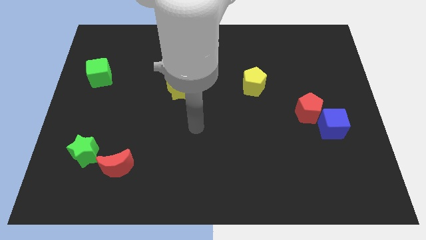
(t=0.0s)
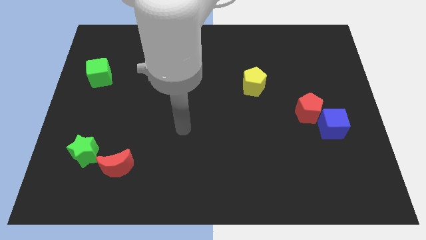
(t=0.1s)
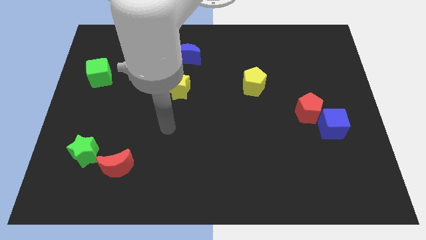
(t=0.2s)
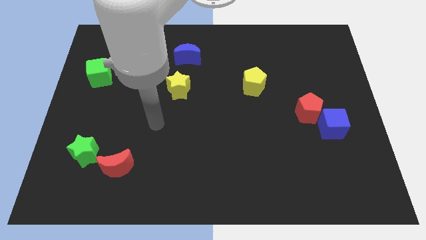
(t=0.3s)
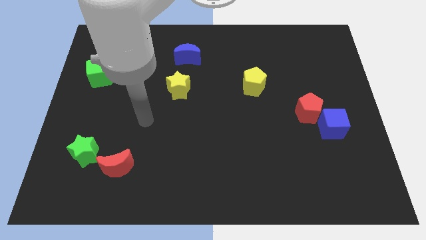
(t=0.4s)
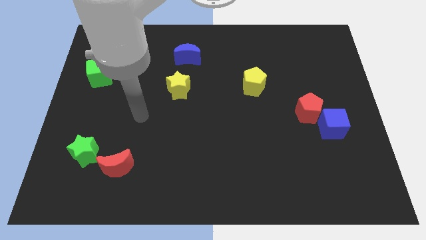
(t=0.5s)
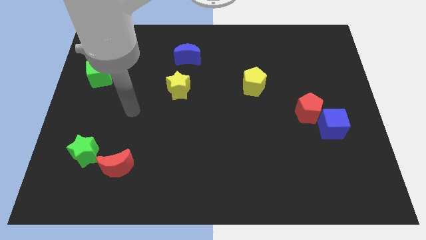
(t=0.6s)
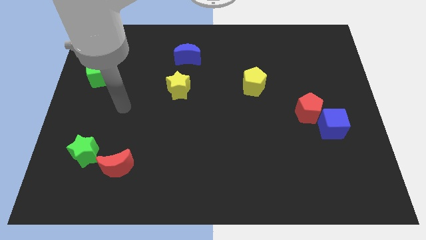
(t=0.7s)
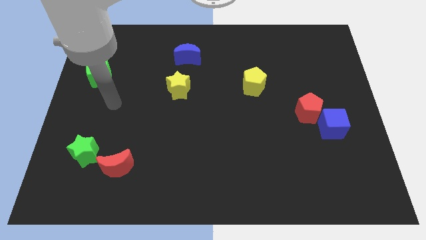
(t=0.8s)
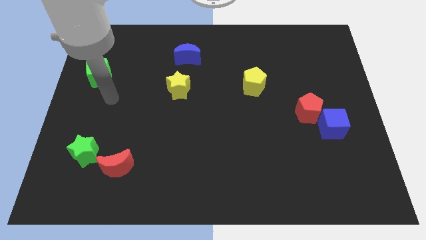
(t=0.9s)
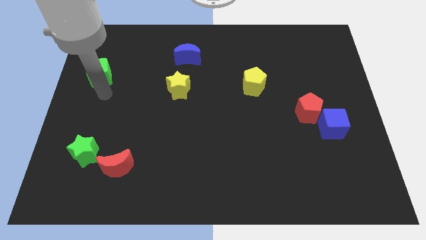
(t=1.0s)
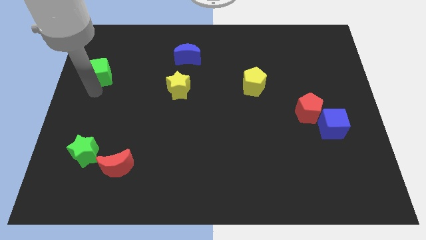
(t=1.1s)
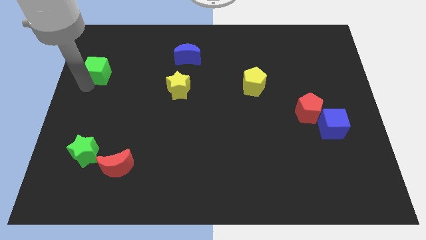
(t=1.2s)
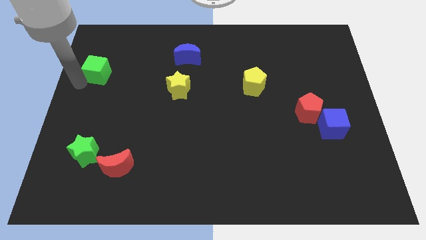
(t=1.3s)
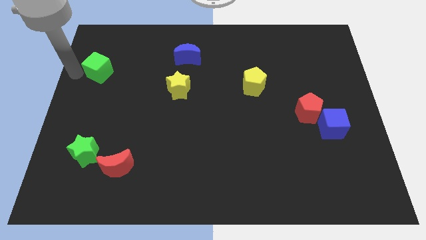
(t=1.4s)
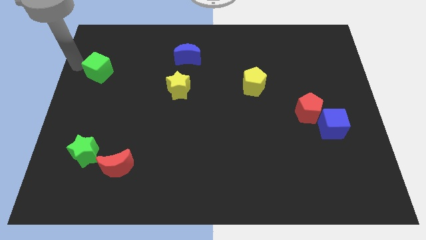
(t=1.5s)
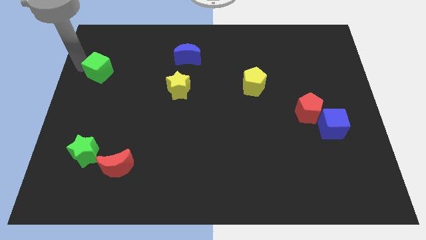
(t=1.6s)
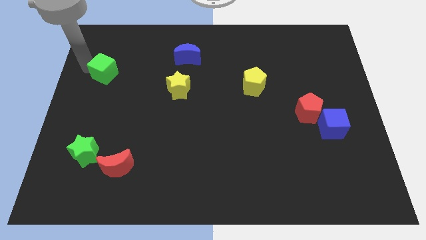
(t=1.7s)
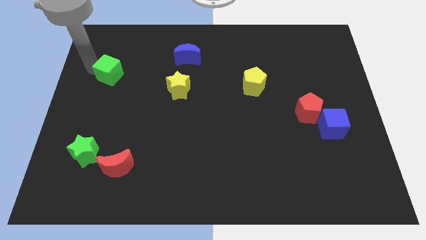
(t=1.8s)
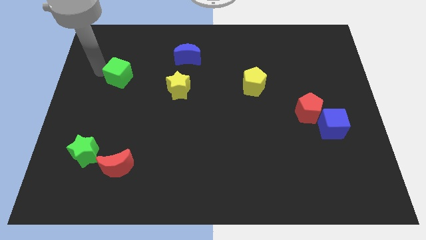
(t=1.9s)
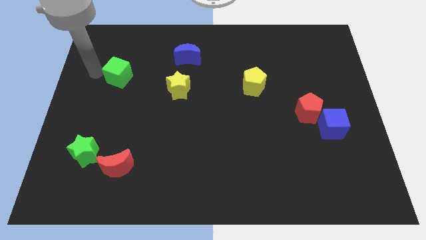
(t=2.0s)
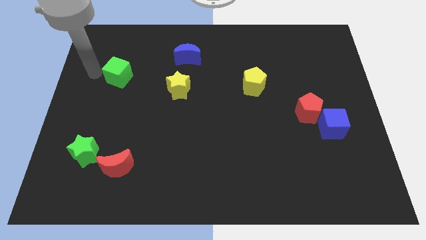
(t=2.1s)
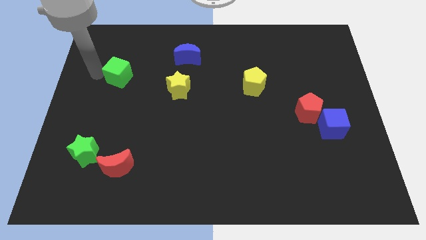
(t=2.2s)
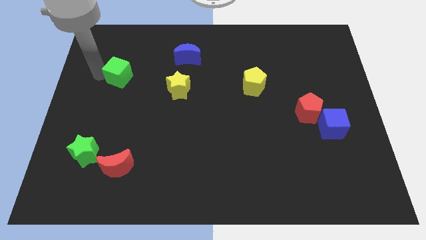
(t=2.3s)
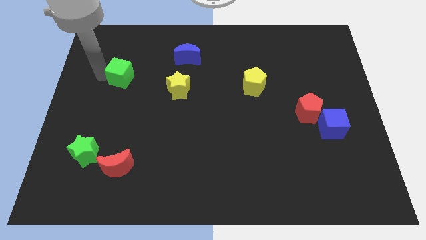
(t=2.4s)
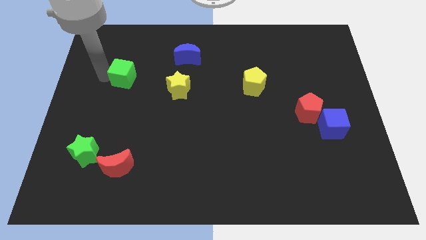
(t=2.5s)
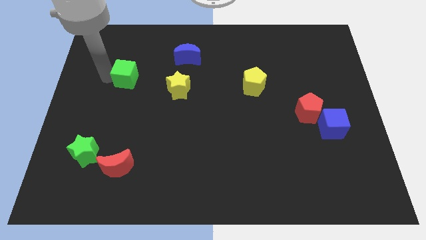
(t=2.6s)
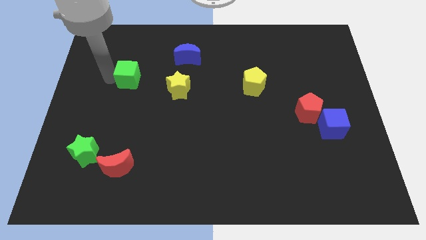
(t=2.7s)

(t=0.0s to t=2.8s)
slightly push the green cube to the right

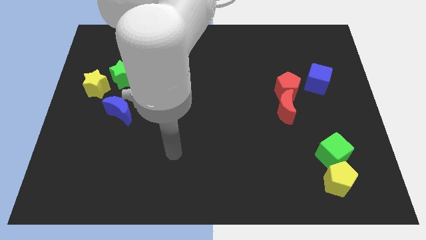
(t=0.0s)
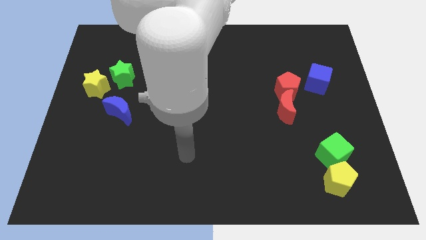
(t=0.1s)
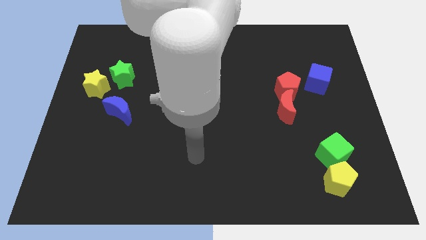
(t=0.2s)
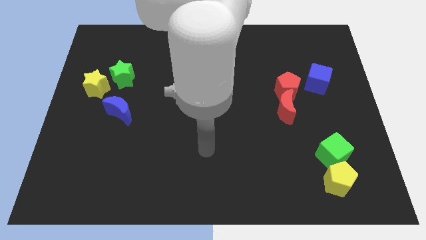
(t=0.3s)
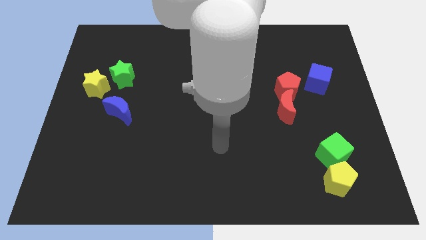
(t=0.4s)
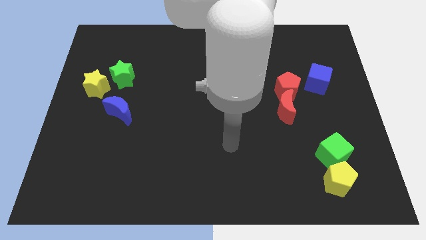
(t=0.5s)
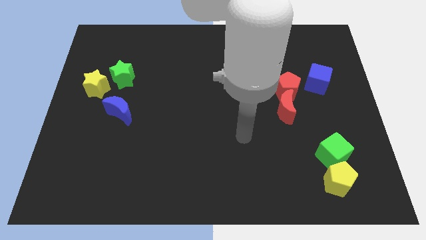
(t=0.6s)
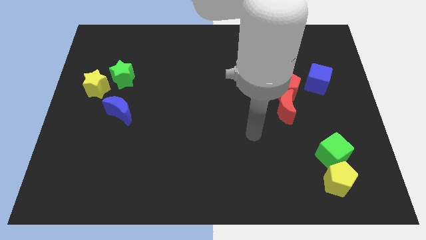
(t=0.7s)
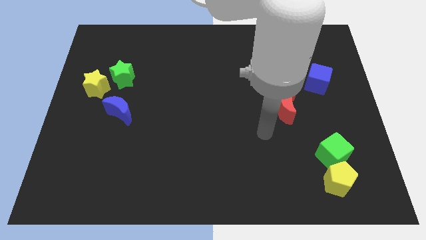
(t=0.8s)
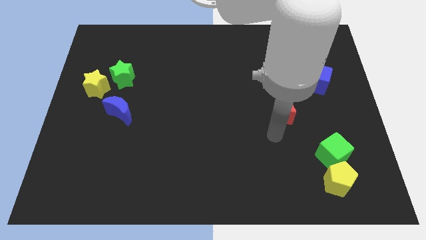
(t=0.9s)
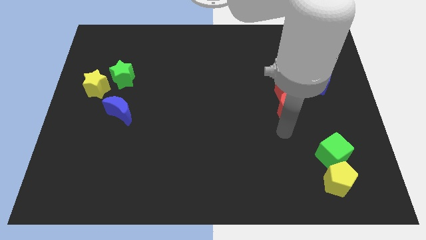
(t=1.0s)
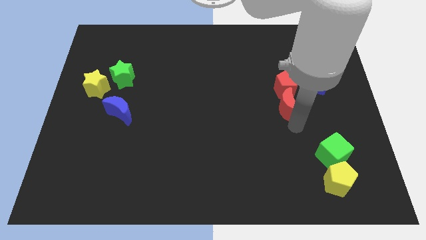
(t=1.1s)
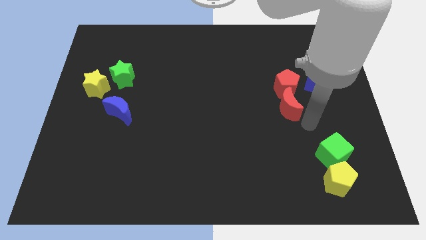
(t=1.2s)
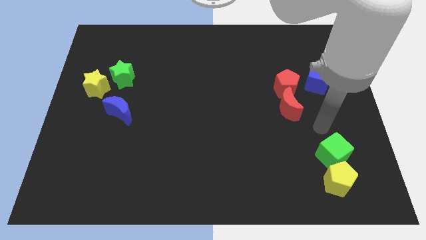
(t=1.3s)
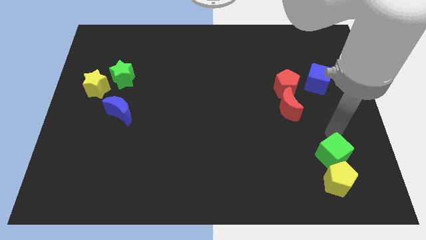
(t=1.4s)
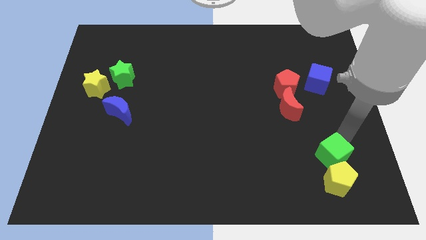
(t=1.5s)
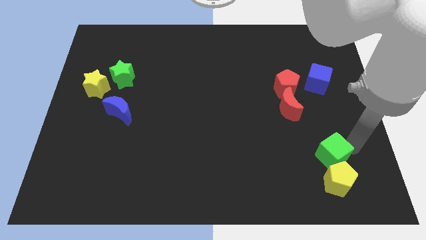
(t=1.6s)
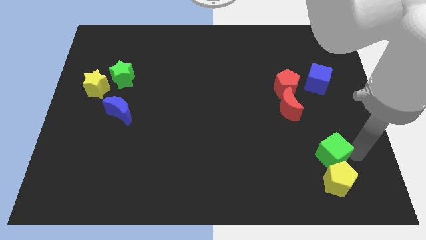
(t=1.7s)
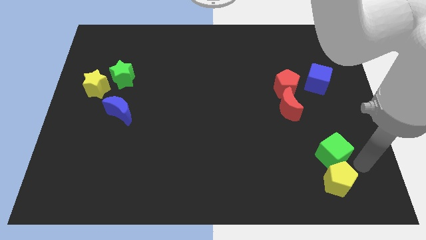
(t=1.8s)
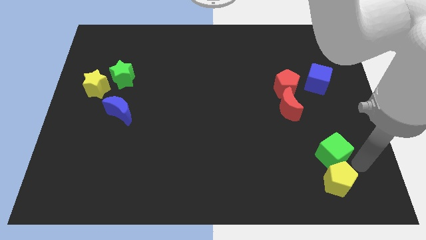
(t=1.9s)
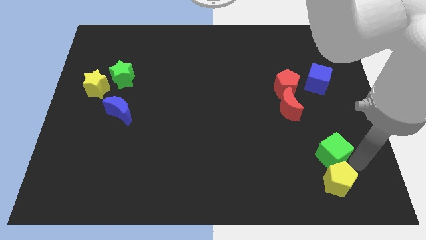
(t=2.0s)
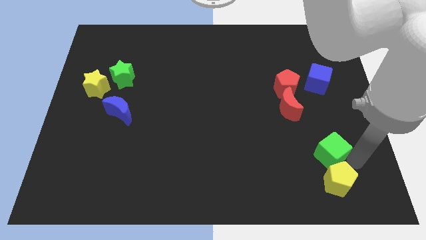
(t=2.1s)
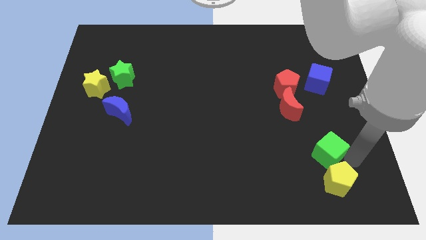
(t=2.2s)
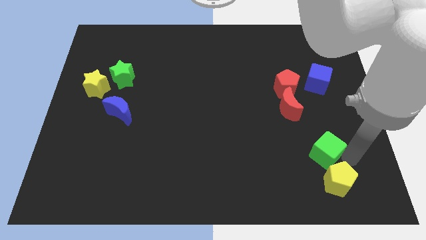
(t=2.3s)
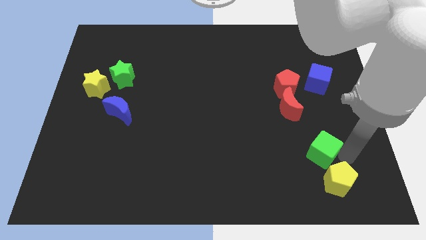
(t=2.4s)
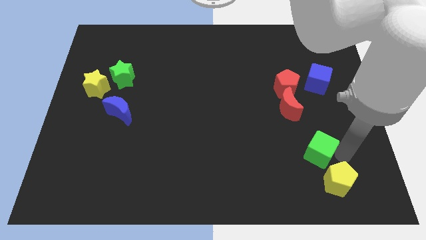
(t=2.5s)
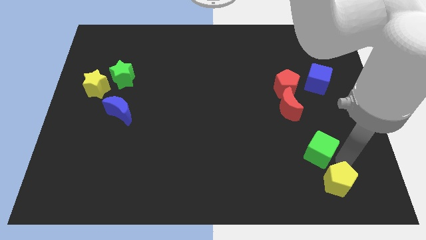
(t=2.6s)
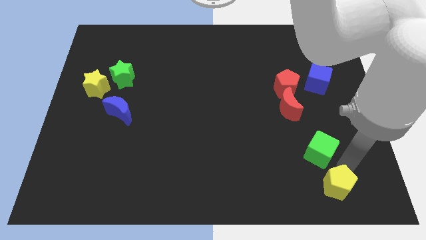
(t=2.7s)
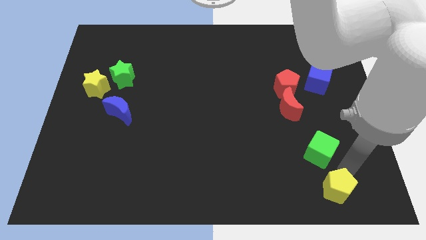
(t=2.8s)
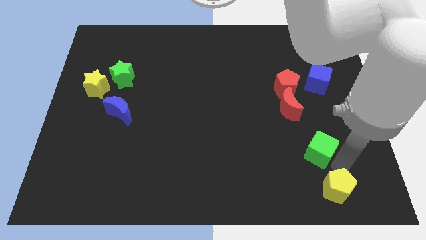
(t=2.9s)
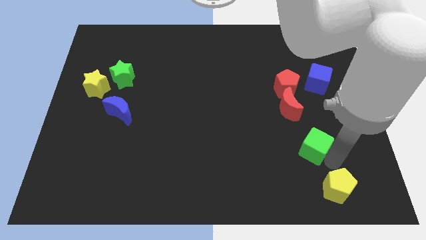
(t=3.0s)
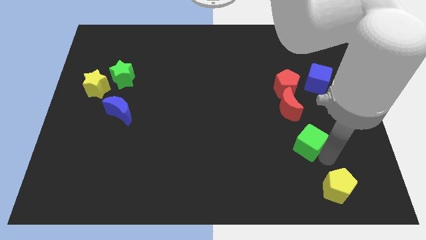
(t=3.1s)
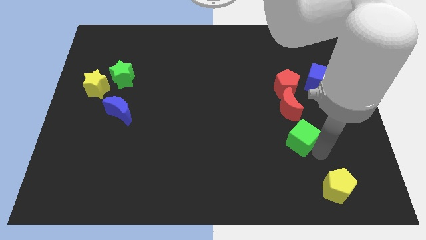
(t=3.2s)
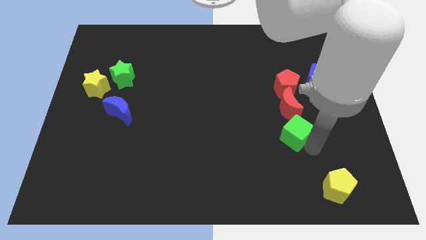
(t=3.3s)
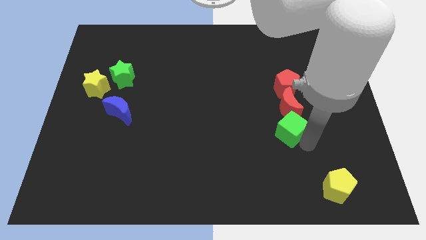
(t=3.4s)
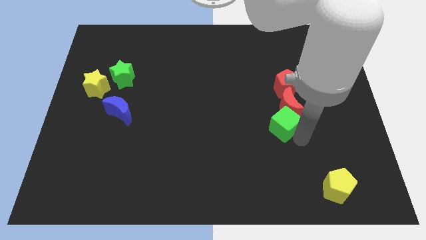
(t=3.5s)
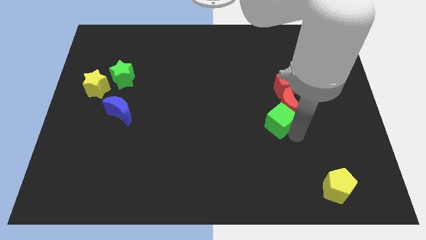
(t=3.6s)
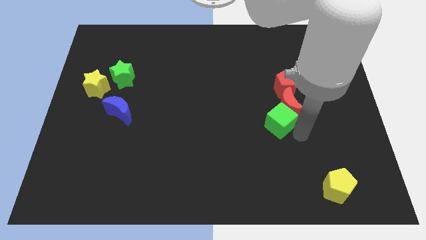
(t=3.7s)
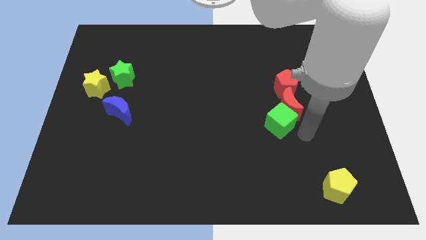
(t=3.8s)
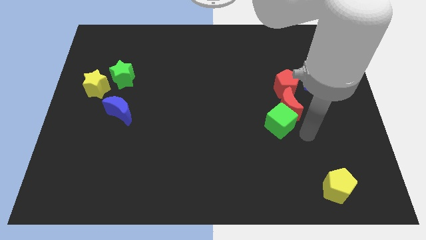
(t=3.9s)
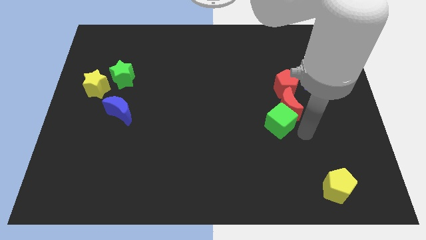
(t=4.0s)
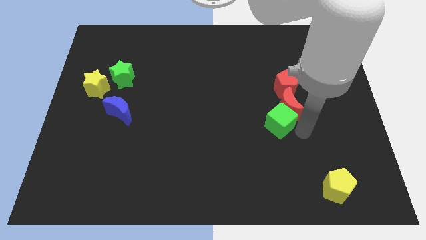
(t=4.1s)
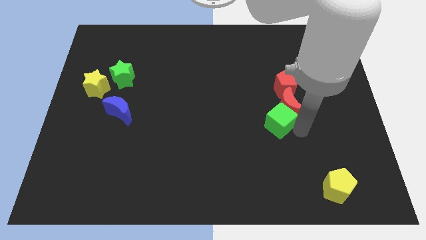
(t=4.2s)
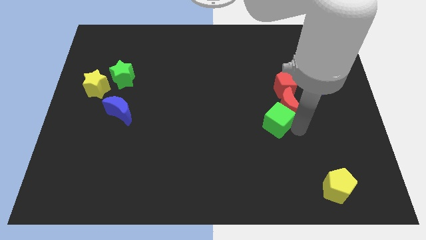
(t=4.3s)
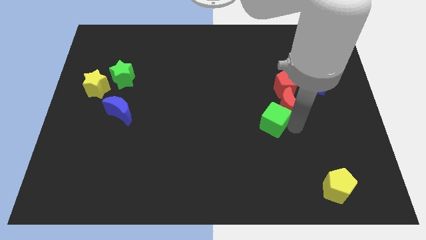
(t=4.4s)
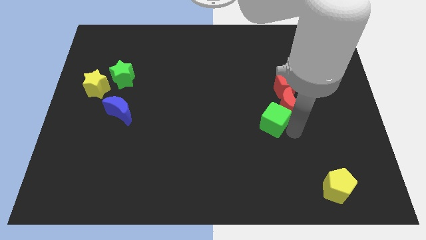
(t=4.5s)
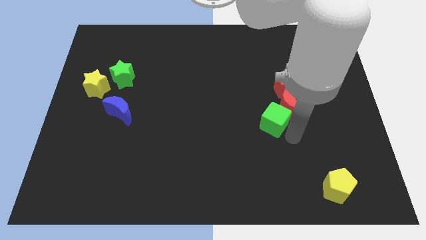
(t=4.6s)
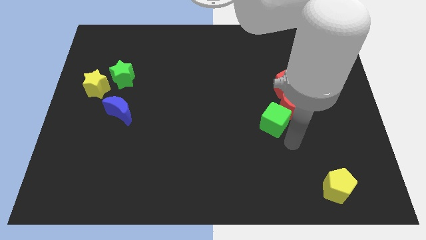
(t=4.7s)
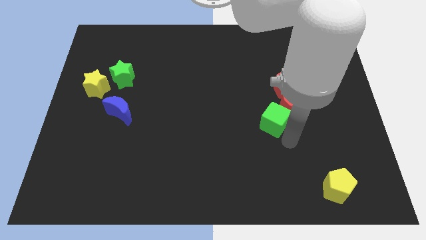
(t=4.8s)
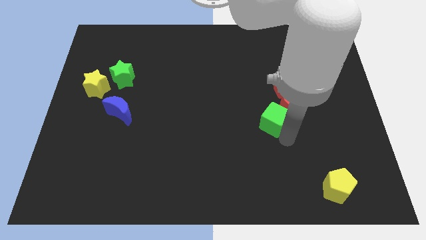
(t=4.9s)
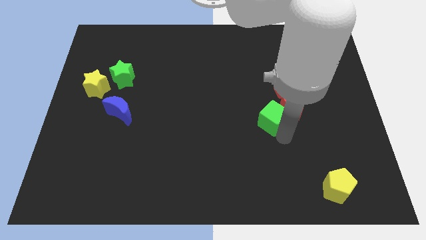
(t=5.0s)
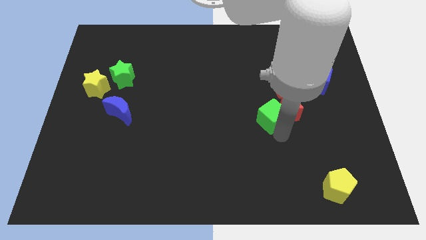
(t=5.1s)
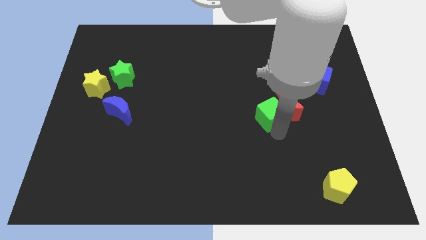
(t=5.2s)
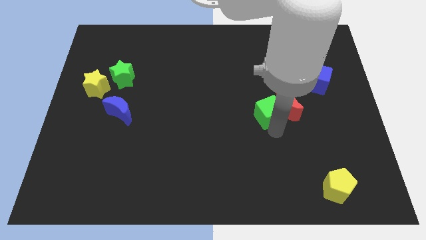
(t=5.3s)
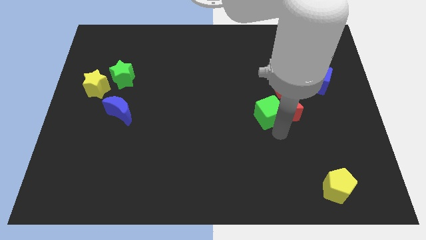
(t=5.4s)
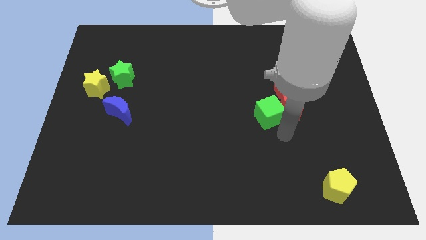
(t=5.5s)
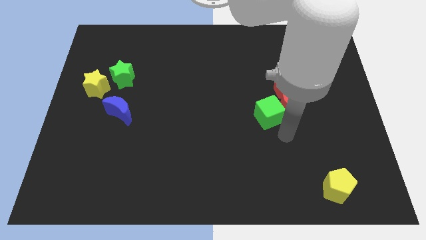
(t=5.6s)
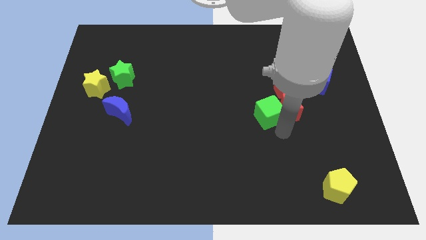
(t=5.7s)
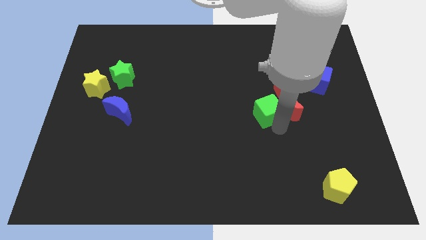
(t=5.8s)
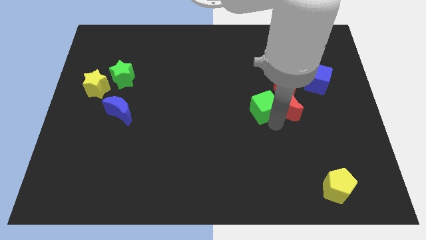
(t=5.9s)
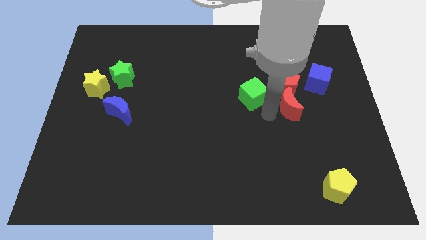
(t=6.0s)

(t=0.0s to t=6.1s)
move the green cube upwards and to the left diagonally
